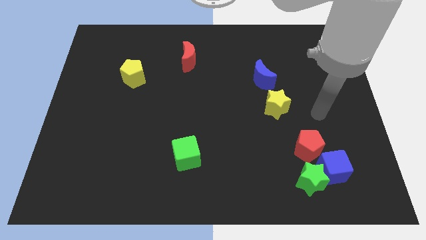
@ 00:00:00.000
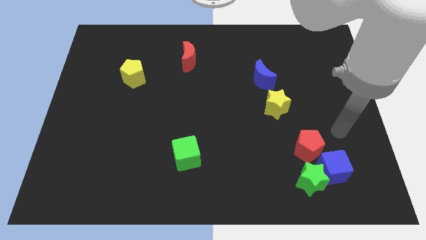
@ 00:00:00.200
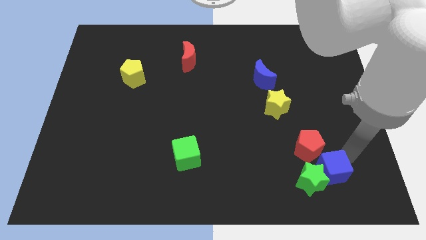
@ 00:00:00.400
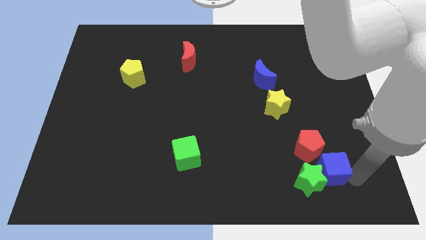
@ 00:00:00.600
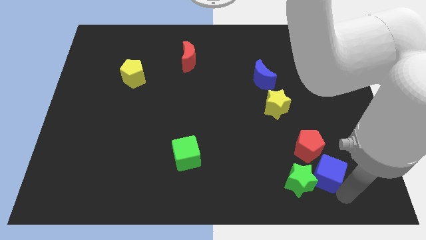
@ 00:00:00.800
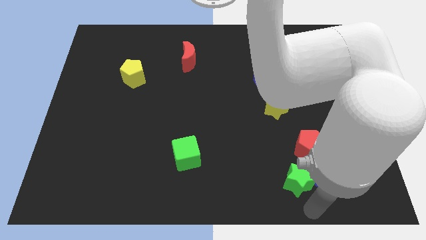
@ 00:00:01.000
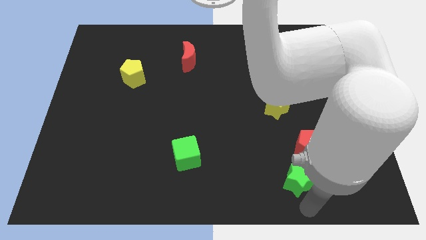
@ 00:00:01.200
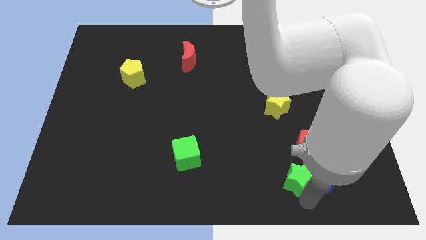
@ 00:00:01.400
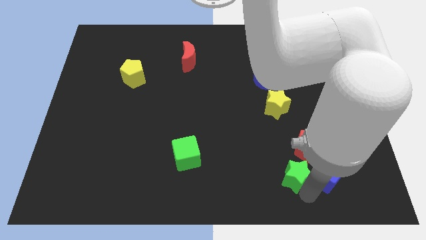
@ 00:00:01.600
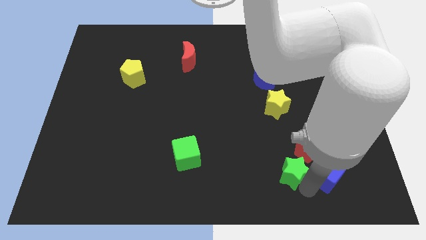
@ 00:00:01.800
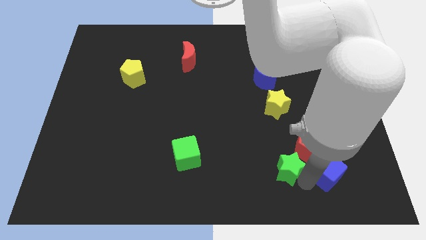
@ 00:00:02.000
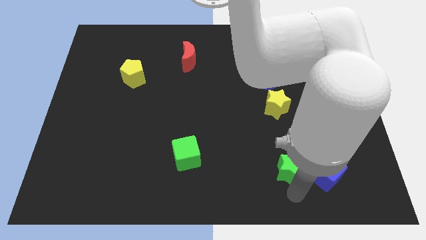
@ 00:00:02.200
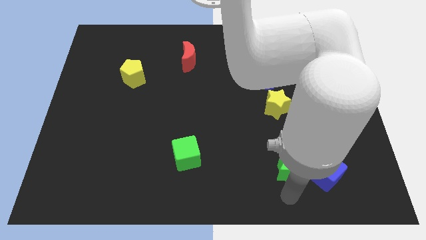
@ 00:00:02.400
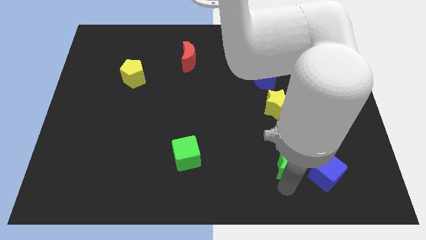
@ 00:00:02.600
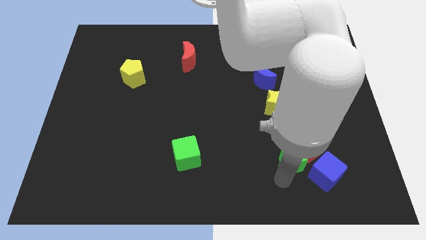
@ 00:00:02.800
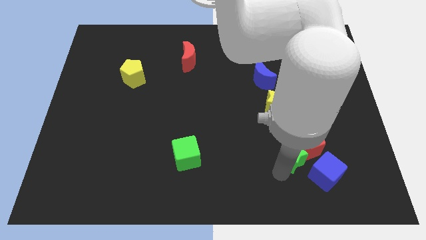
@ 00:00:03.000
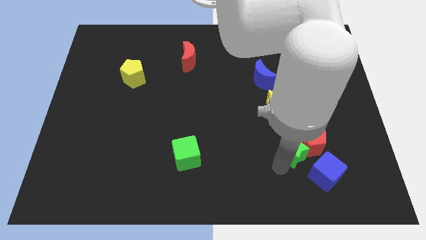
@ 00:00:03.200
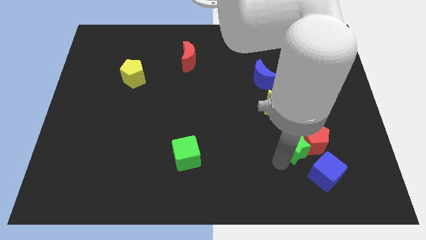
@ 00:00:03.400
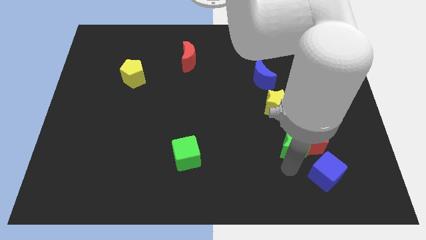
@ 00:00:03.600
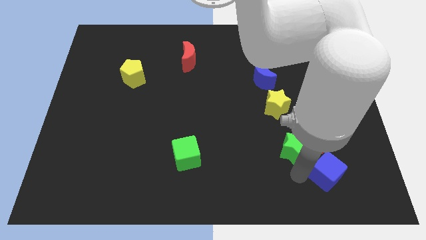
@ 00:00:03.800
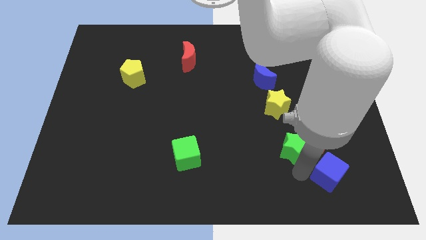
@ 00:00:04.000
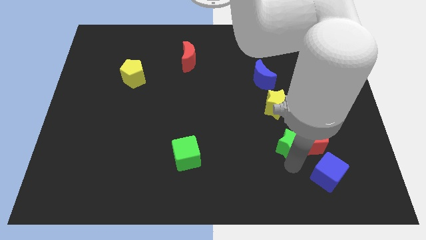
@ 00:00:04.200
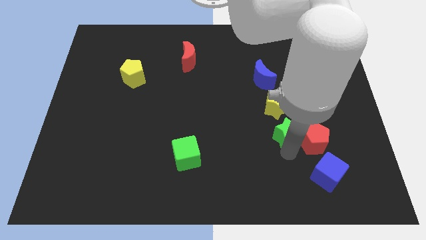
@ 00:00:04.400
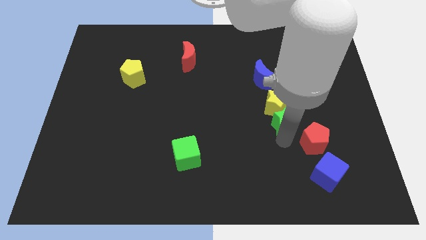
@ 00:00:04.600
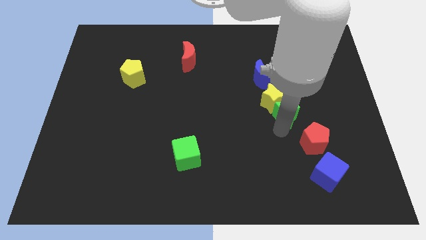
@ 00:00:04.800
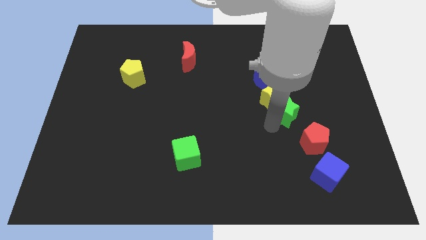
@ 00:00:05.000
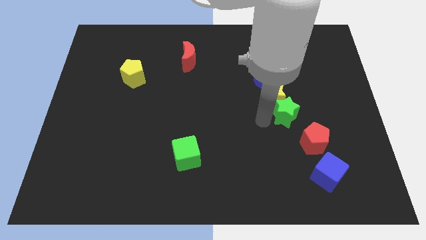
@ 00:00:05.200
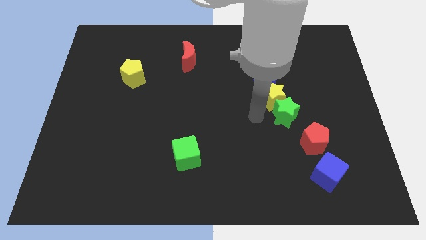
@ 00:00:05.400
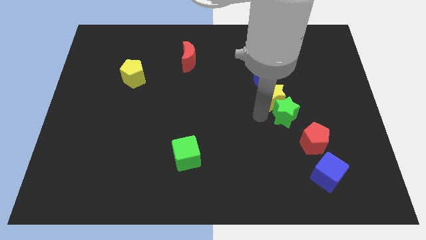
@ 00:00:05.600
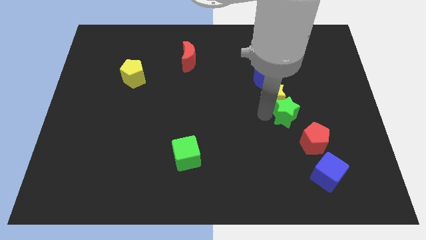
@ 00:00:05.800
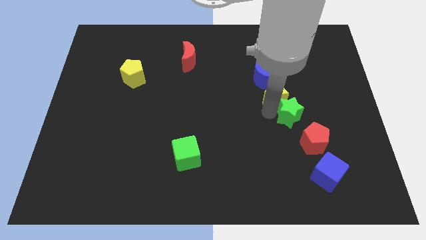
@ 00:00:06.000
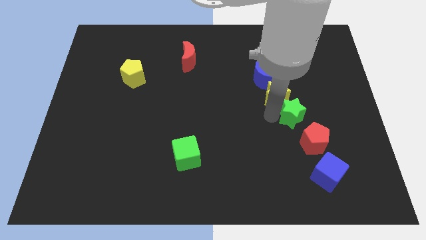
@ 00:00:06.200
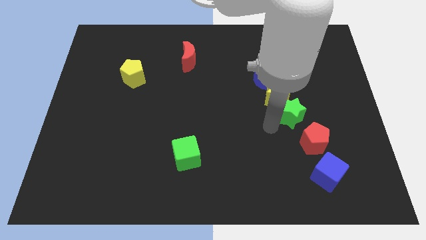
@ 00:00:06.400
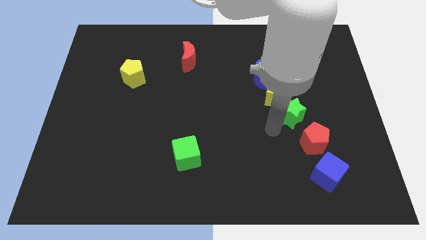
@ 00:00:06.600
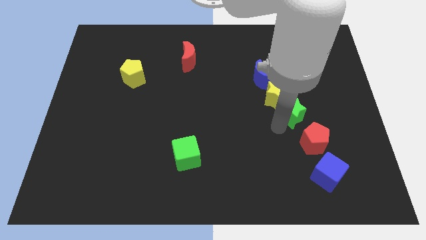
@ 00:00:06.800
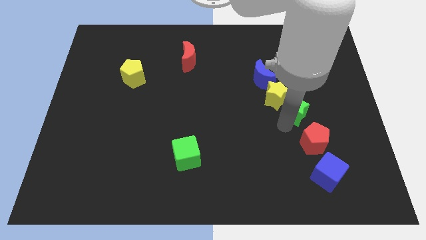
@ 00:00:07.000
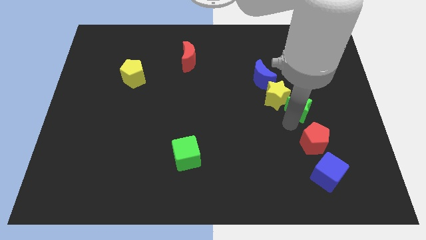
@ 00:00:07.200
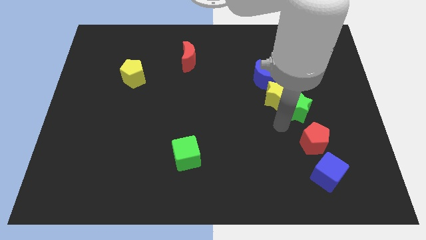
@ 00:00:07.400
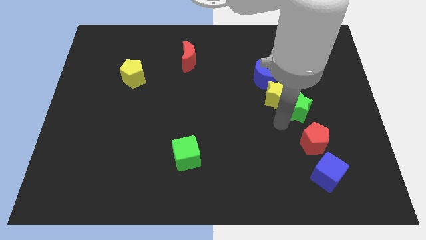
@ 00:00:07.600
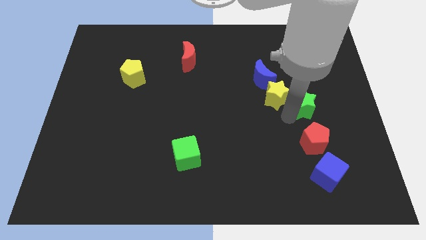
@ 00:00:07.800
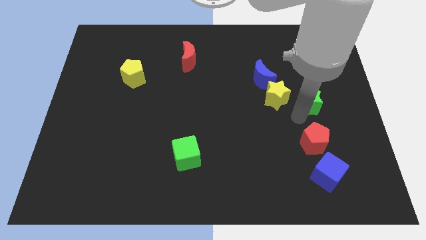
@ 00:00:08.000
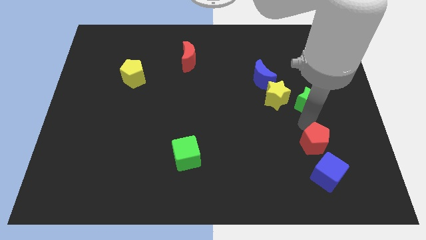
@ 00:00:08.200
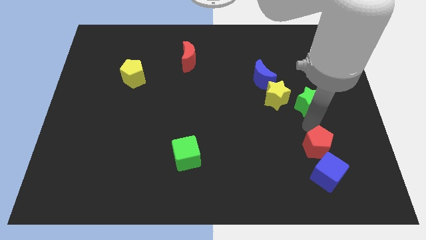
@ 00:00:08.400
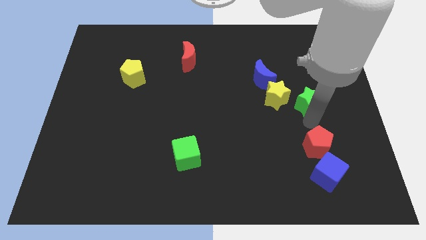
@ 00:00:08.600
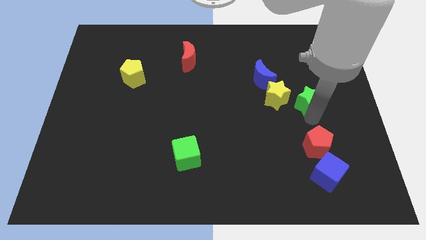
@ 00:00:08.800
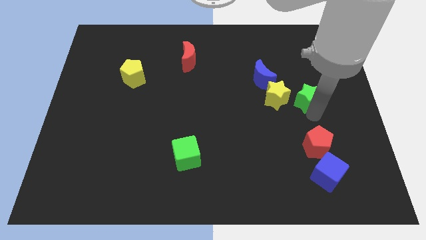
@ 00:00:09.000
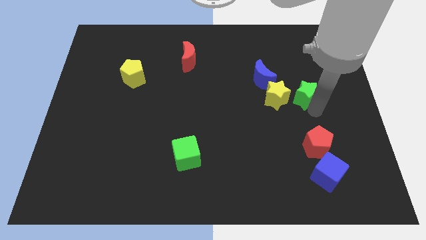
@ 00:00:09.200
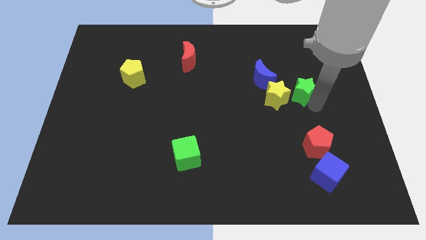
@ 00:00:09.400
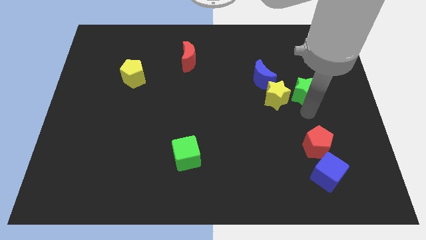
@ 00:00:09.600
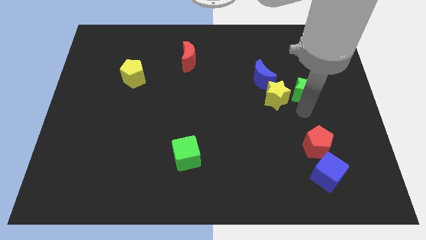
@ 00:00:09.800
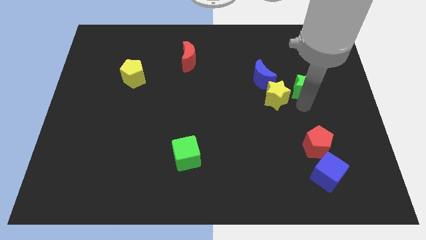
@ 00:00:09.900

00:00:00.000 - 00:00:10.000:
slide the green star just right of the blue moon

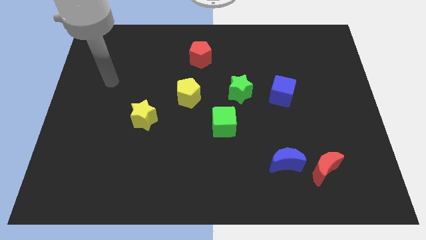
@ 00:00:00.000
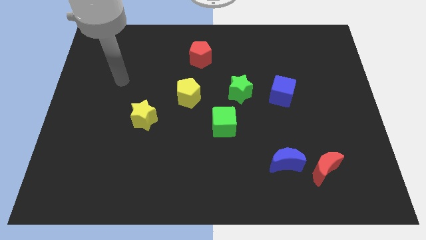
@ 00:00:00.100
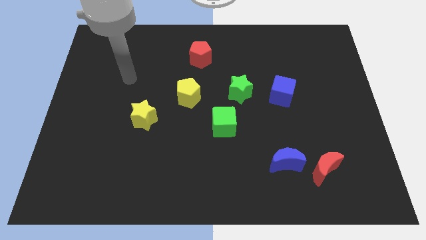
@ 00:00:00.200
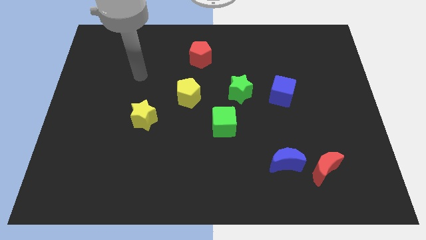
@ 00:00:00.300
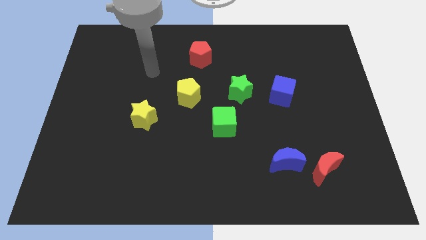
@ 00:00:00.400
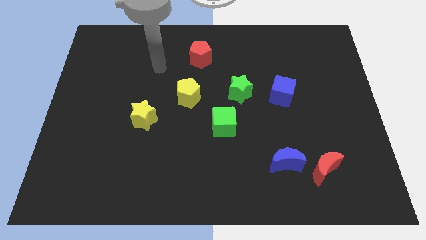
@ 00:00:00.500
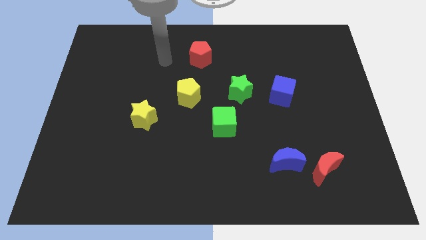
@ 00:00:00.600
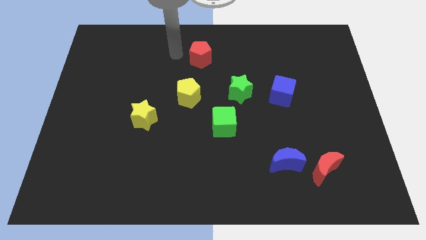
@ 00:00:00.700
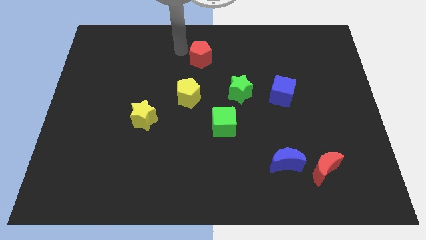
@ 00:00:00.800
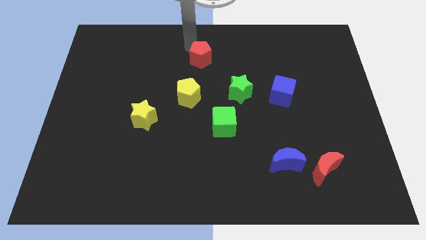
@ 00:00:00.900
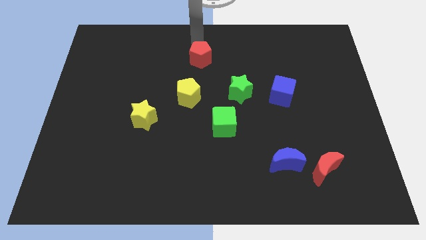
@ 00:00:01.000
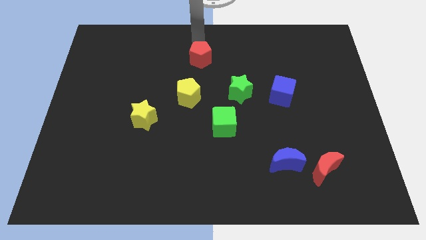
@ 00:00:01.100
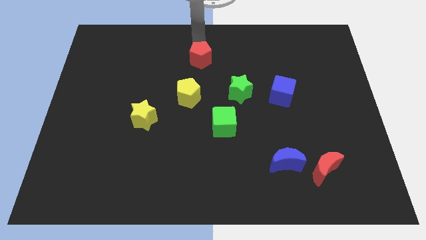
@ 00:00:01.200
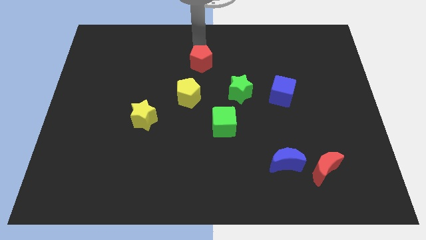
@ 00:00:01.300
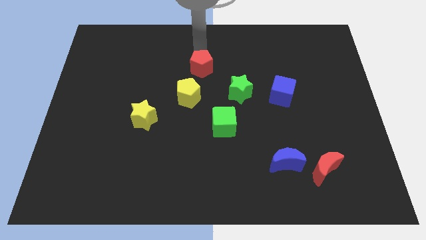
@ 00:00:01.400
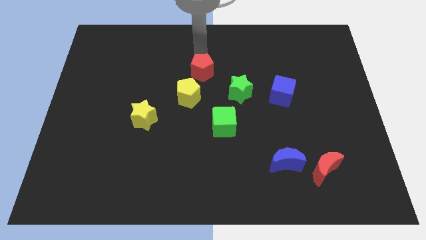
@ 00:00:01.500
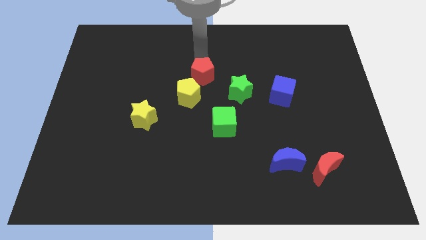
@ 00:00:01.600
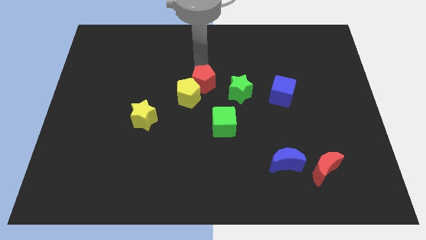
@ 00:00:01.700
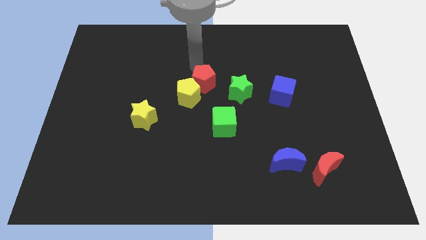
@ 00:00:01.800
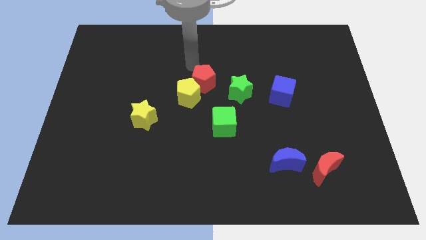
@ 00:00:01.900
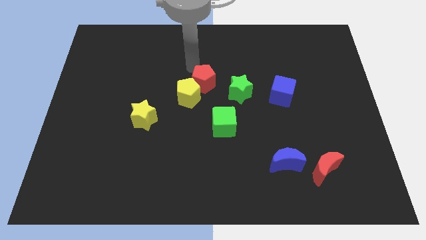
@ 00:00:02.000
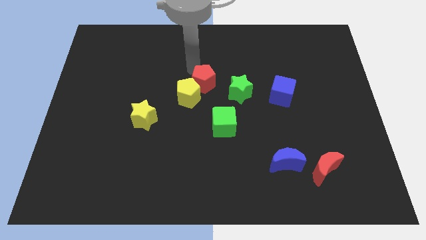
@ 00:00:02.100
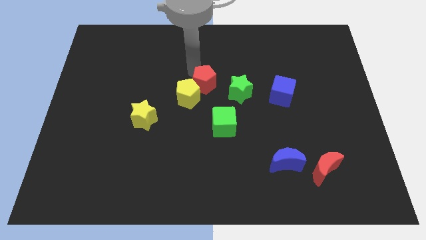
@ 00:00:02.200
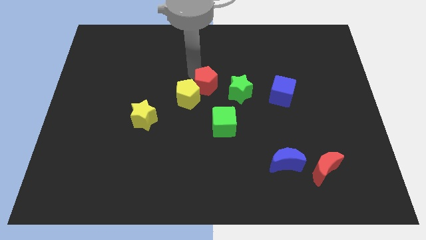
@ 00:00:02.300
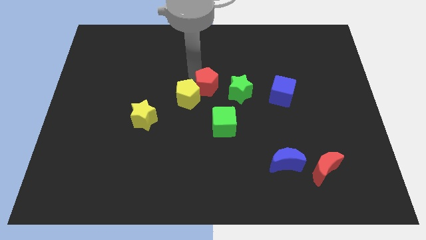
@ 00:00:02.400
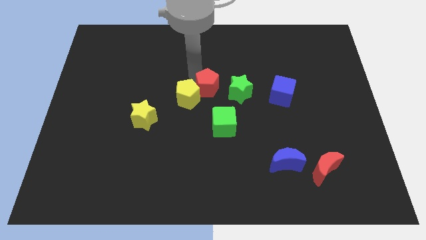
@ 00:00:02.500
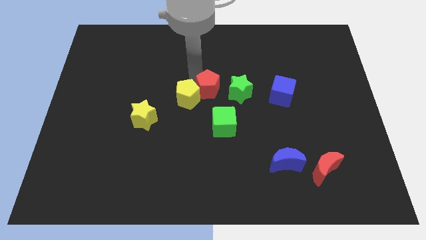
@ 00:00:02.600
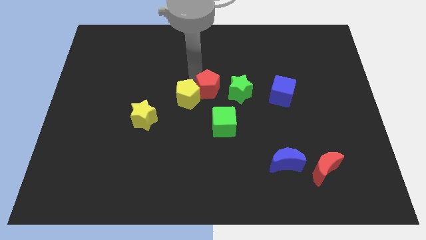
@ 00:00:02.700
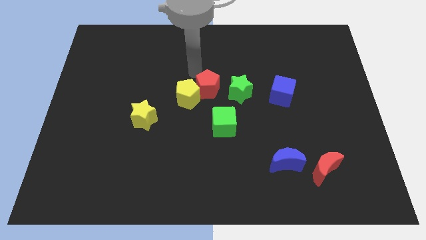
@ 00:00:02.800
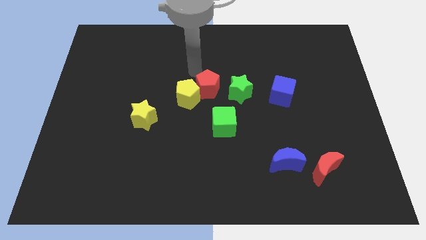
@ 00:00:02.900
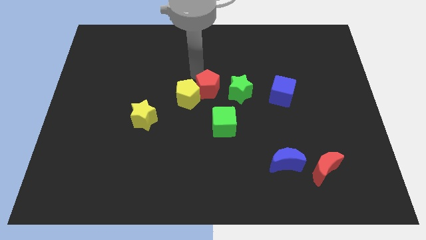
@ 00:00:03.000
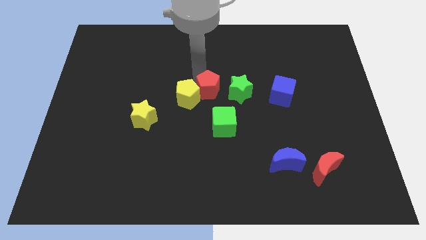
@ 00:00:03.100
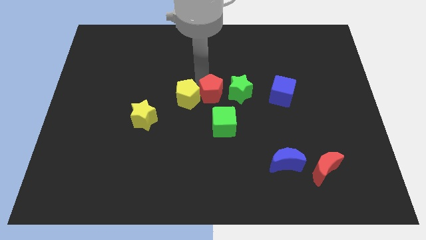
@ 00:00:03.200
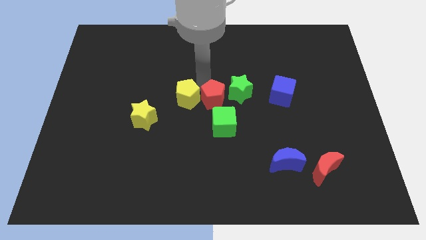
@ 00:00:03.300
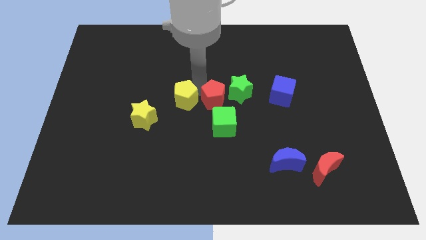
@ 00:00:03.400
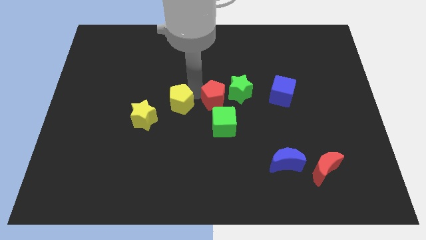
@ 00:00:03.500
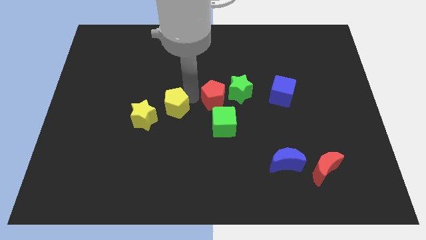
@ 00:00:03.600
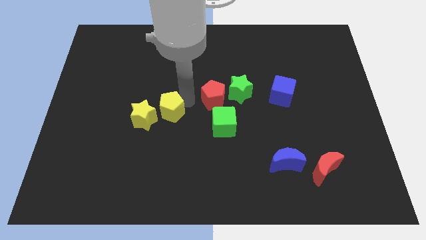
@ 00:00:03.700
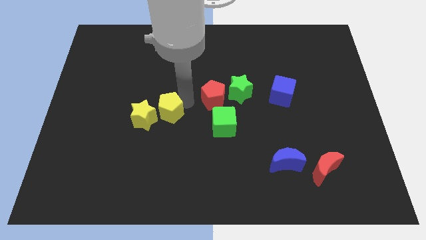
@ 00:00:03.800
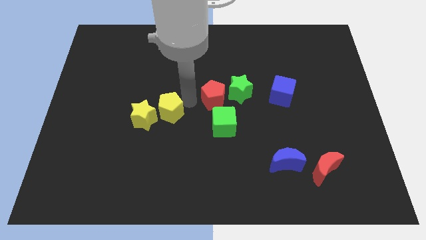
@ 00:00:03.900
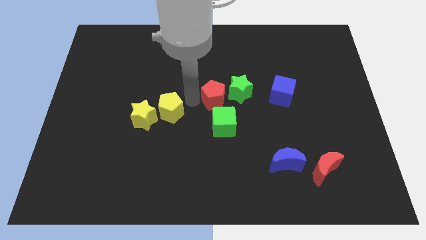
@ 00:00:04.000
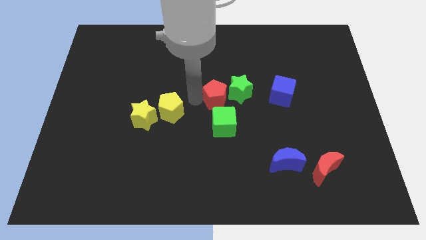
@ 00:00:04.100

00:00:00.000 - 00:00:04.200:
push the red pentagon left of the blue cube
